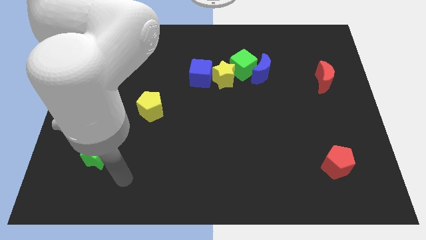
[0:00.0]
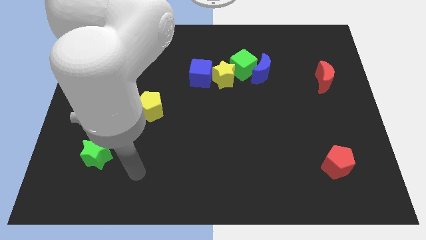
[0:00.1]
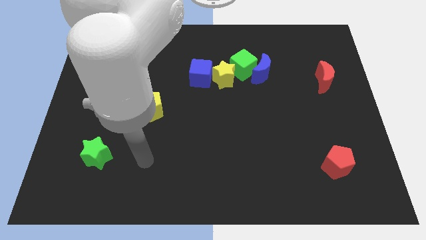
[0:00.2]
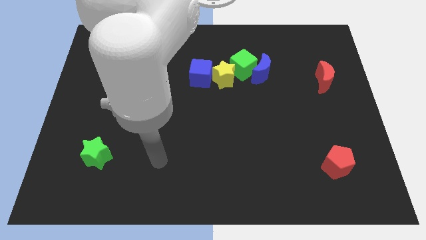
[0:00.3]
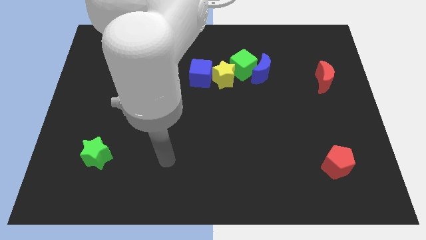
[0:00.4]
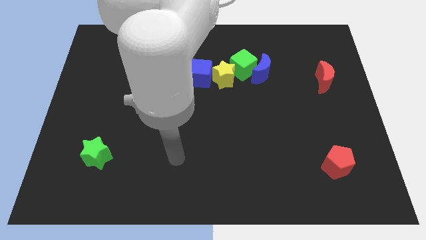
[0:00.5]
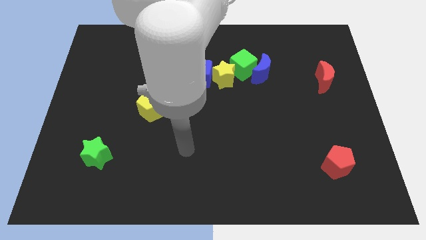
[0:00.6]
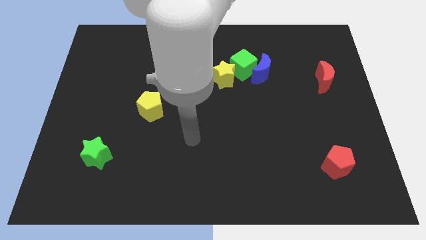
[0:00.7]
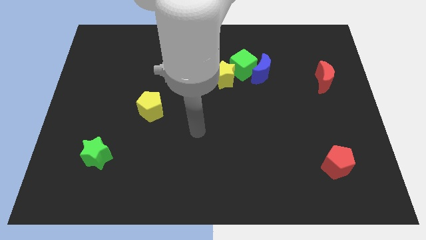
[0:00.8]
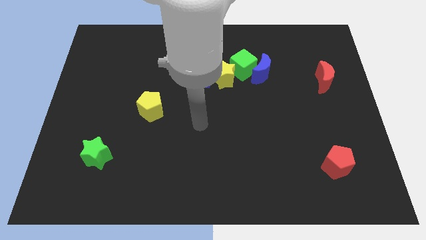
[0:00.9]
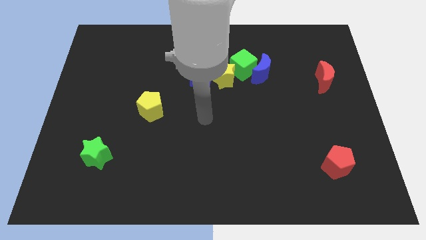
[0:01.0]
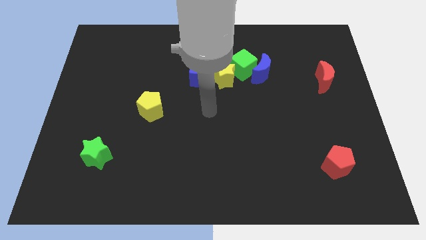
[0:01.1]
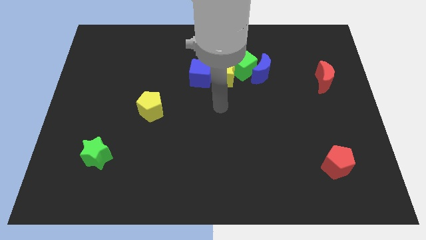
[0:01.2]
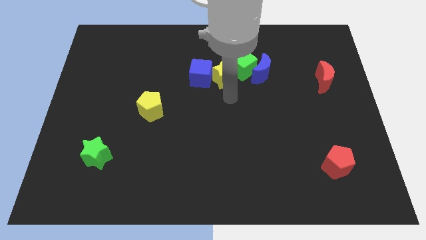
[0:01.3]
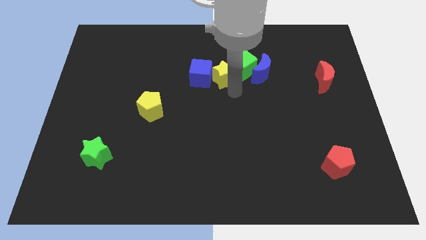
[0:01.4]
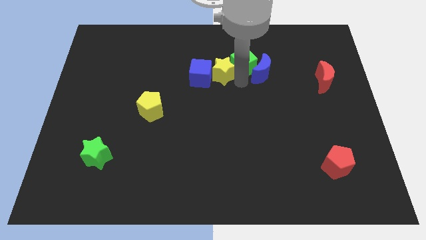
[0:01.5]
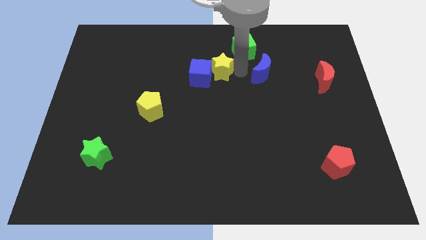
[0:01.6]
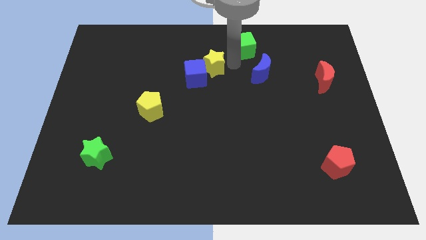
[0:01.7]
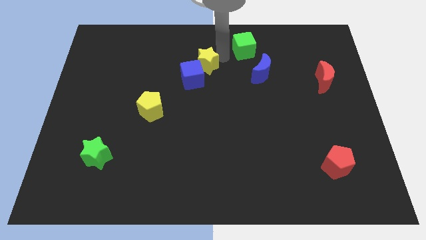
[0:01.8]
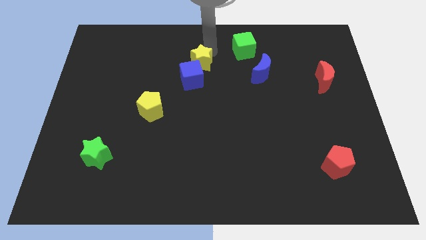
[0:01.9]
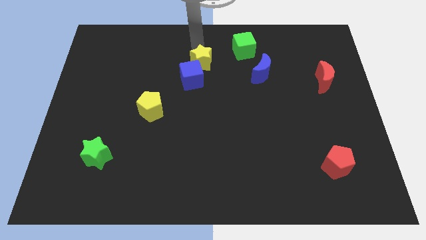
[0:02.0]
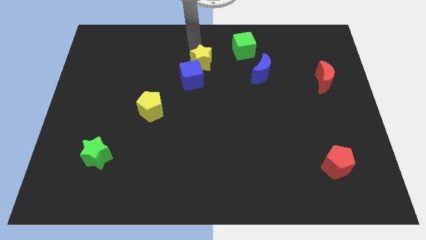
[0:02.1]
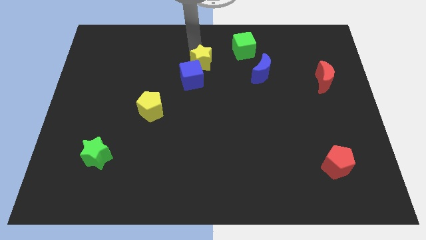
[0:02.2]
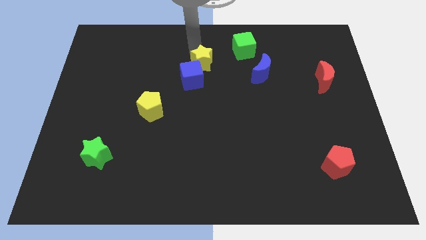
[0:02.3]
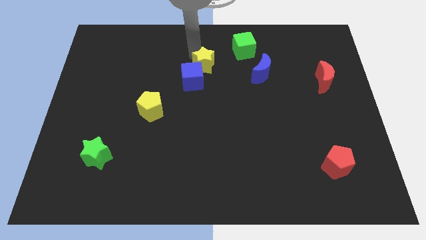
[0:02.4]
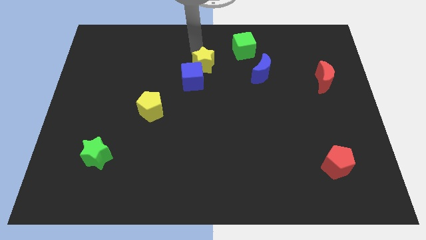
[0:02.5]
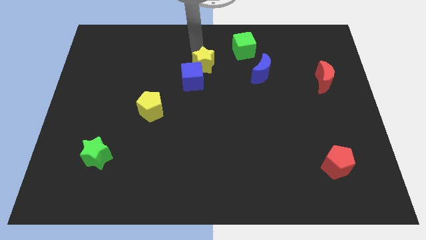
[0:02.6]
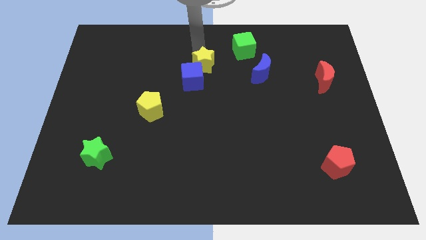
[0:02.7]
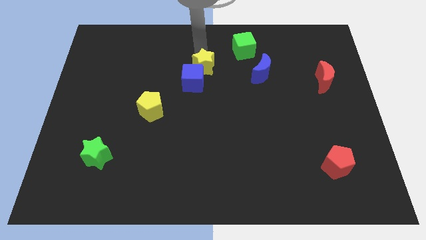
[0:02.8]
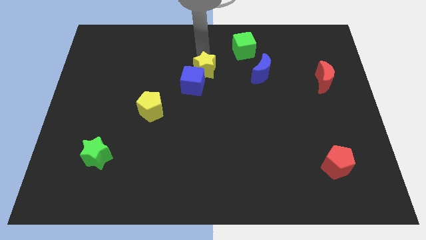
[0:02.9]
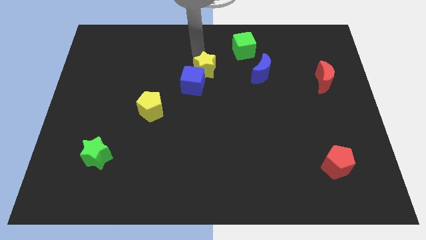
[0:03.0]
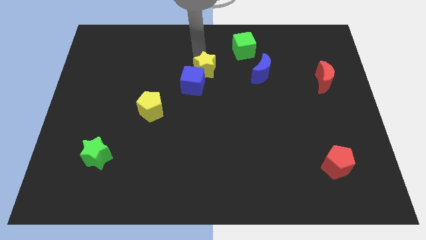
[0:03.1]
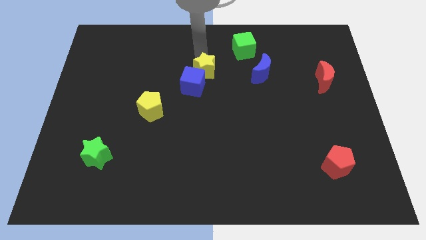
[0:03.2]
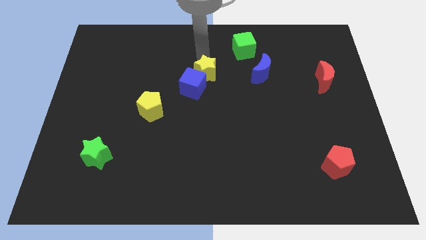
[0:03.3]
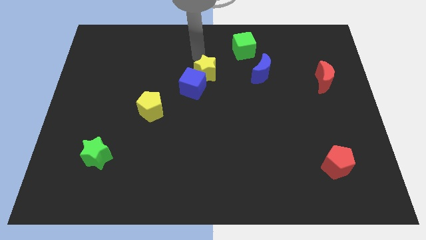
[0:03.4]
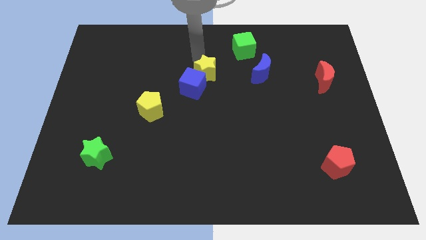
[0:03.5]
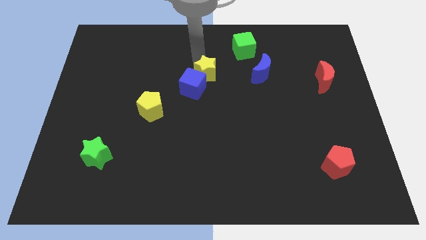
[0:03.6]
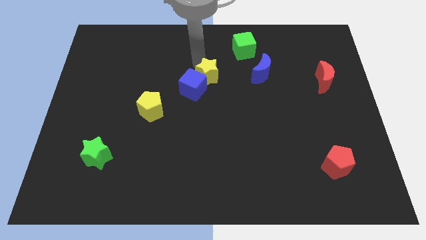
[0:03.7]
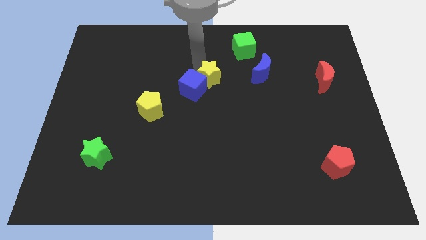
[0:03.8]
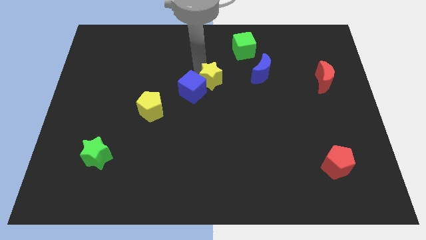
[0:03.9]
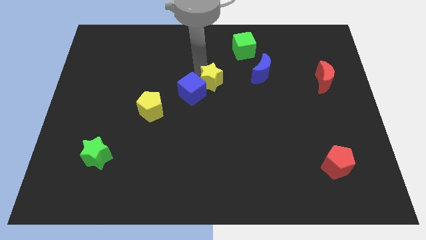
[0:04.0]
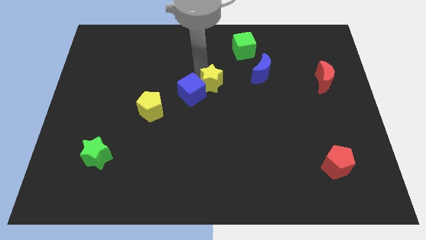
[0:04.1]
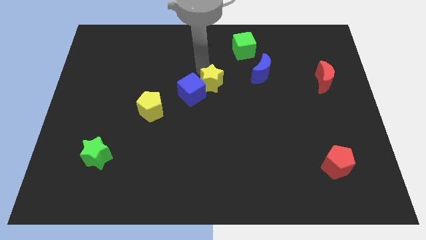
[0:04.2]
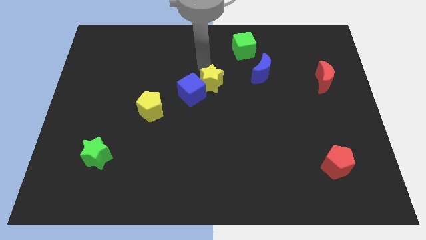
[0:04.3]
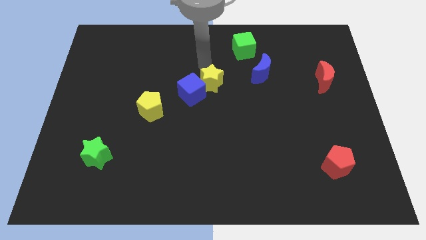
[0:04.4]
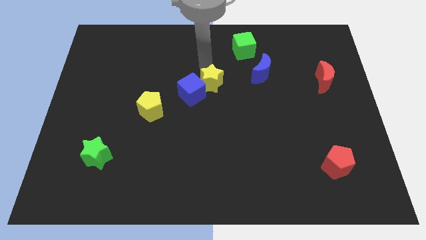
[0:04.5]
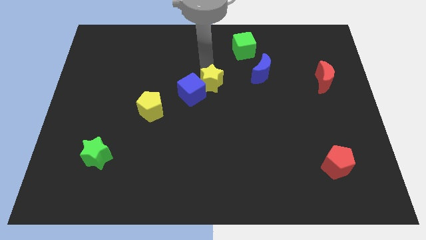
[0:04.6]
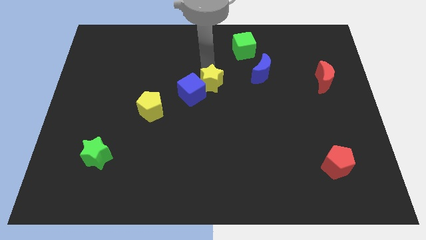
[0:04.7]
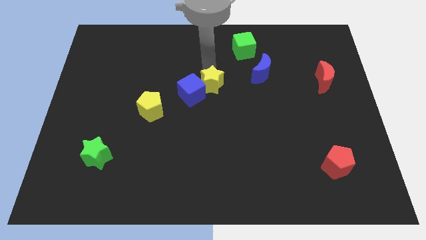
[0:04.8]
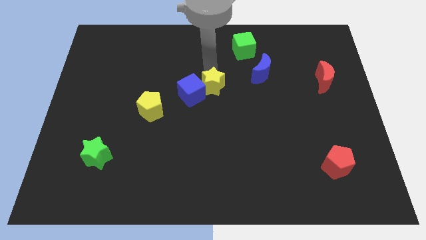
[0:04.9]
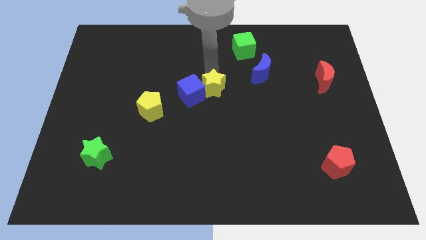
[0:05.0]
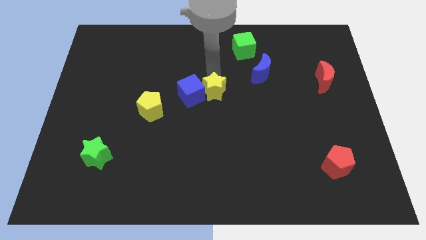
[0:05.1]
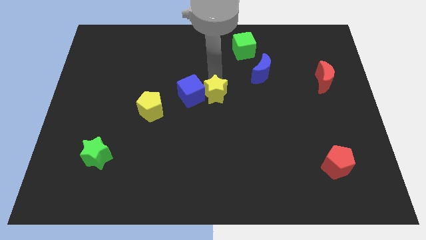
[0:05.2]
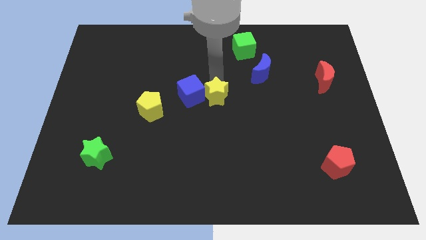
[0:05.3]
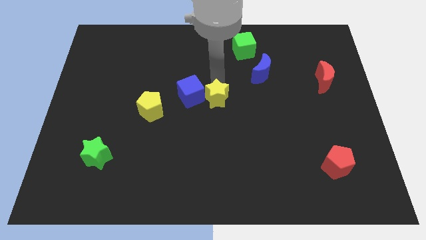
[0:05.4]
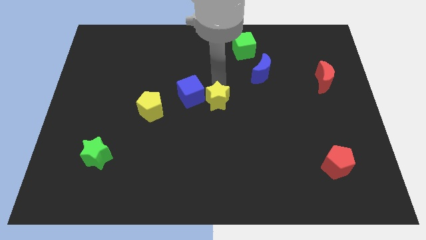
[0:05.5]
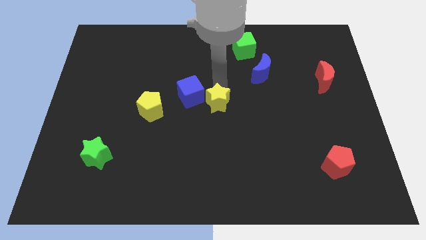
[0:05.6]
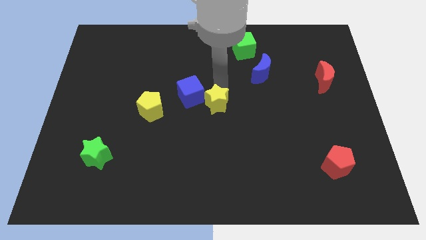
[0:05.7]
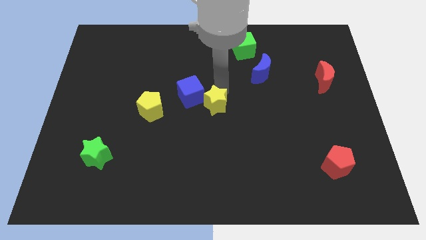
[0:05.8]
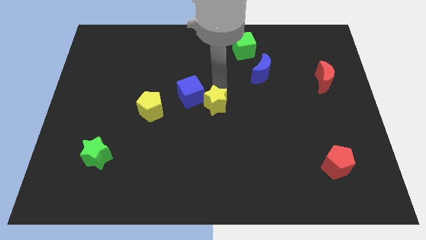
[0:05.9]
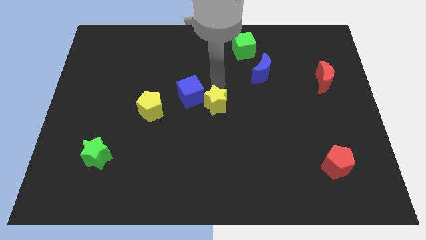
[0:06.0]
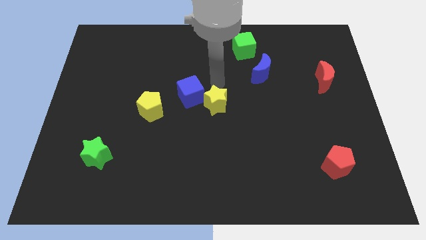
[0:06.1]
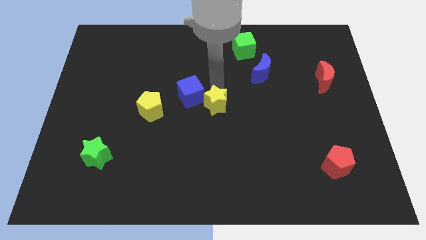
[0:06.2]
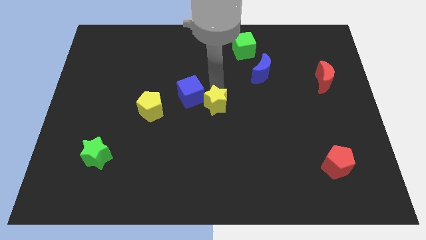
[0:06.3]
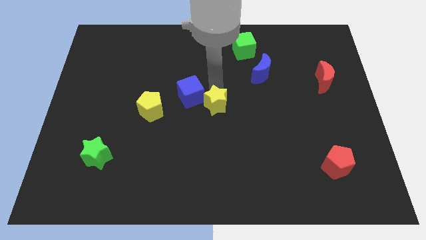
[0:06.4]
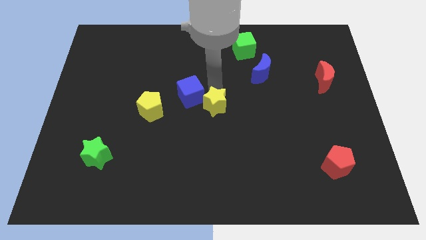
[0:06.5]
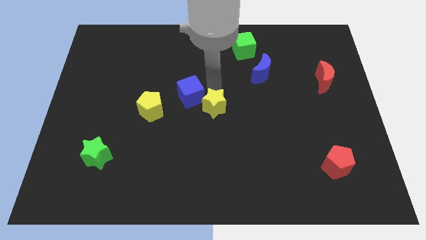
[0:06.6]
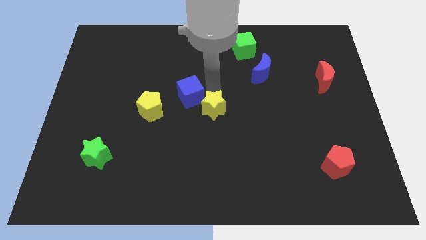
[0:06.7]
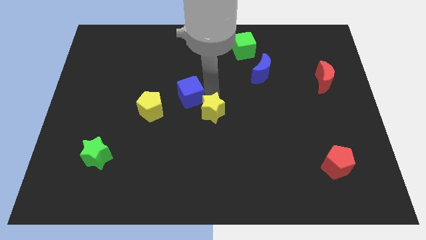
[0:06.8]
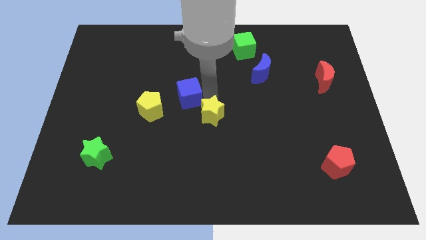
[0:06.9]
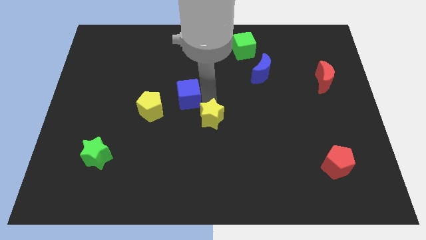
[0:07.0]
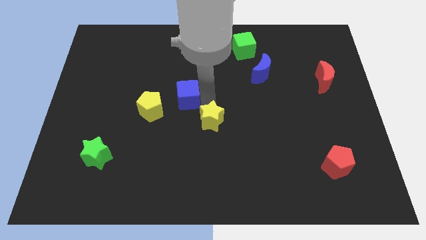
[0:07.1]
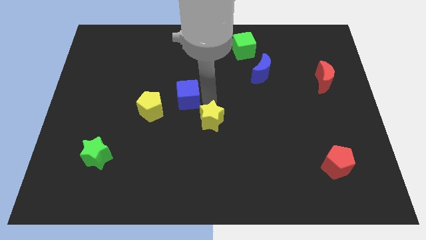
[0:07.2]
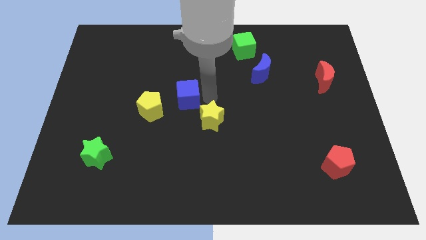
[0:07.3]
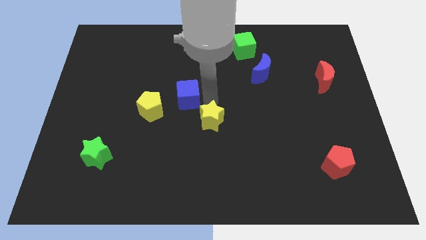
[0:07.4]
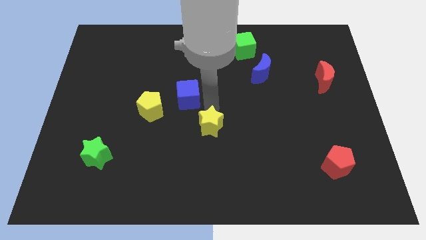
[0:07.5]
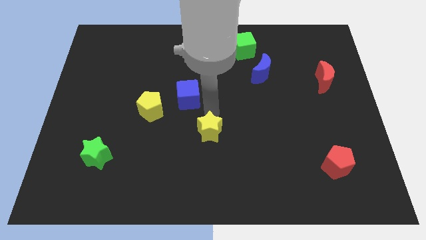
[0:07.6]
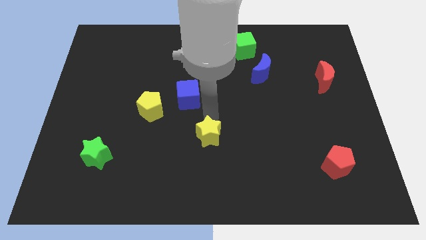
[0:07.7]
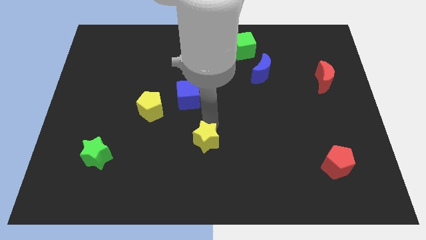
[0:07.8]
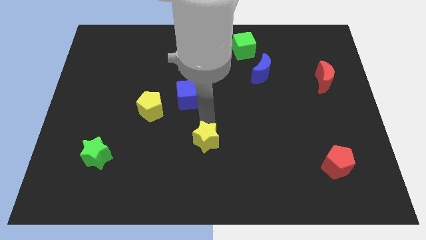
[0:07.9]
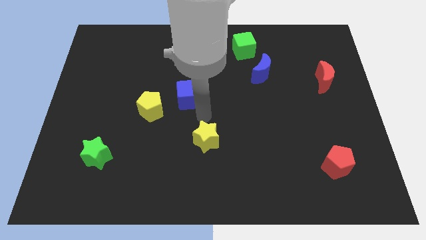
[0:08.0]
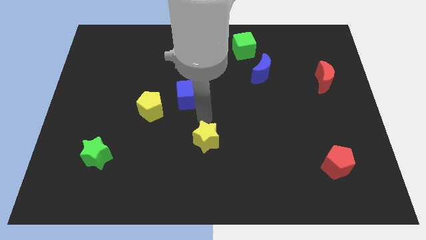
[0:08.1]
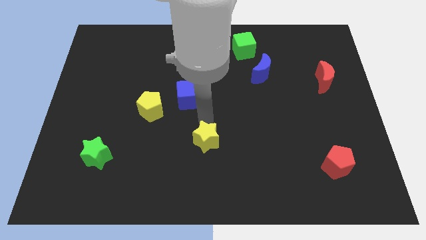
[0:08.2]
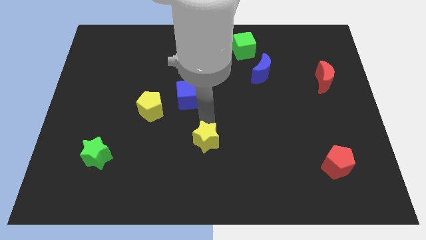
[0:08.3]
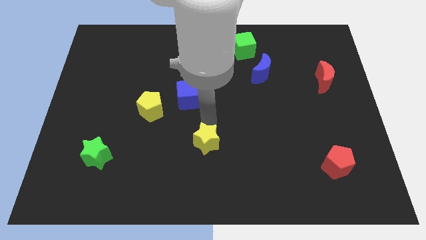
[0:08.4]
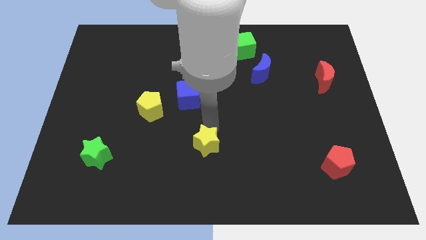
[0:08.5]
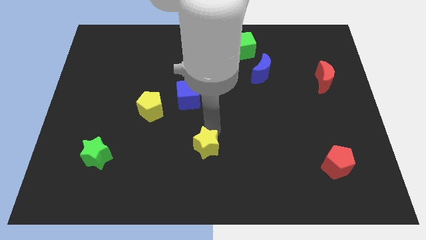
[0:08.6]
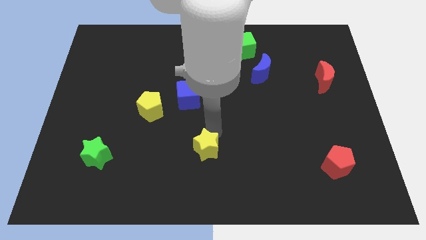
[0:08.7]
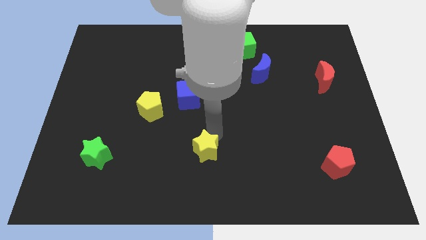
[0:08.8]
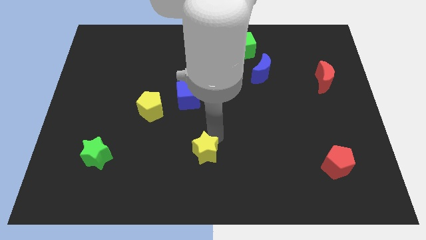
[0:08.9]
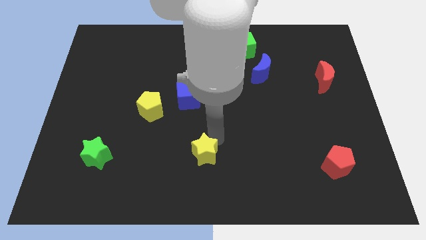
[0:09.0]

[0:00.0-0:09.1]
slide the yellow star to the bottom side
